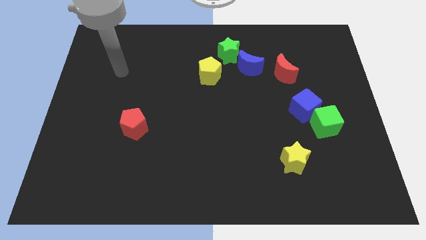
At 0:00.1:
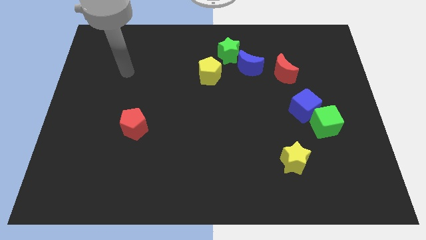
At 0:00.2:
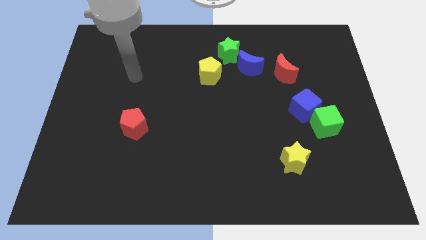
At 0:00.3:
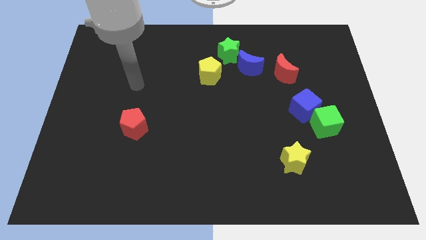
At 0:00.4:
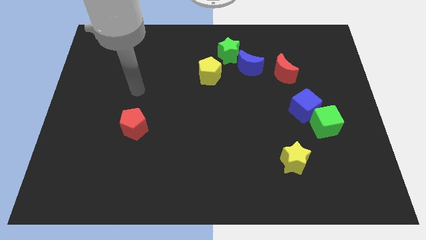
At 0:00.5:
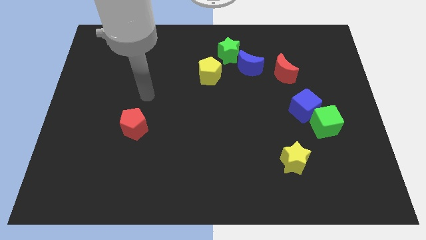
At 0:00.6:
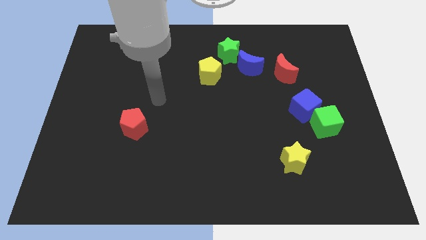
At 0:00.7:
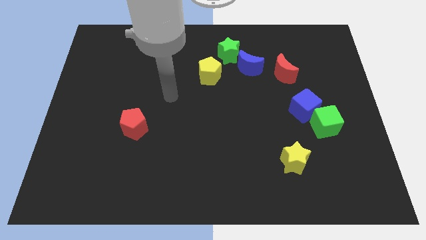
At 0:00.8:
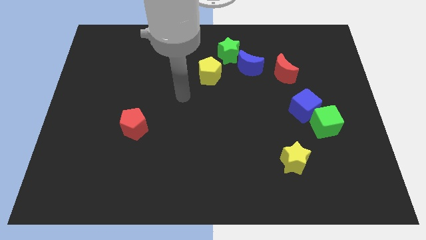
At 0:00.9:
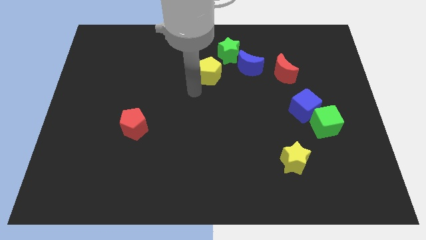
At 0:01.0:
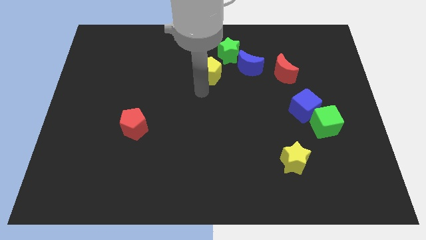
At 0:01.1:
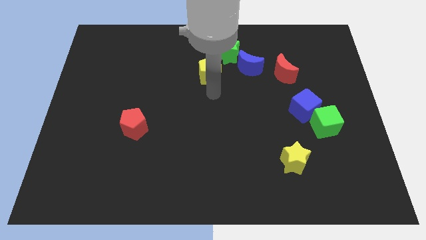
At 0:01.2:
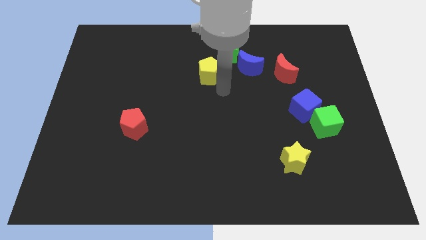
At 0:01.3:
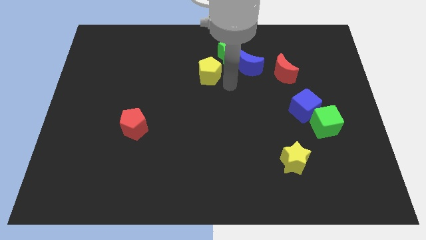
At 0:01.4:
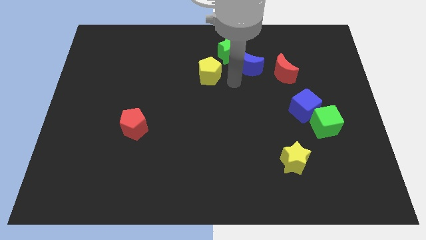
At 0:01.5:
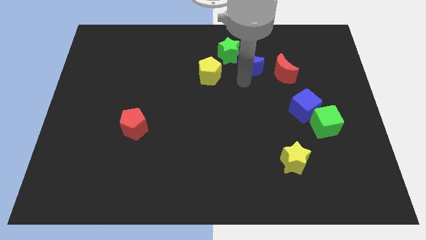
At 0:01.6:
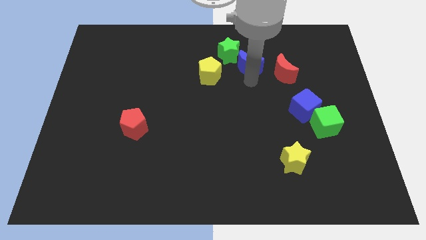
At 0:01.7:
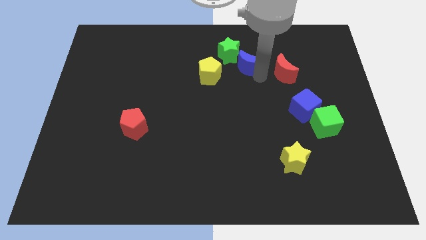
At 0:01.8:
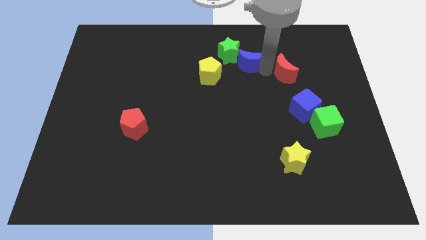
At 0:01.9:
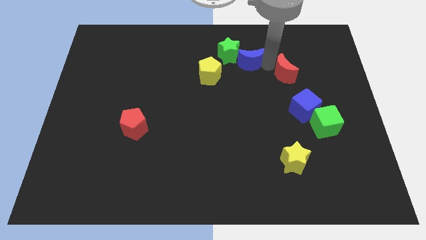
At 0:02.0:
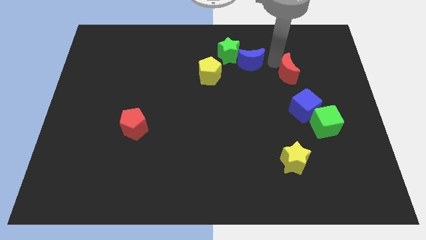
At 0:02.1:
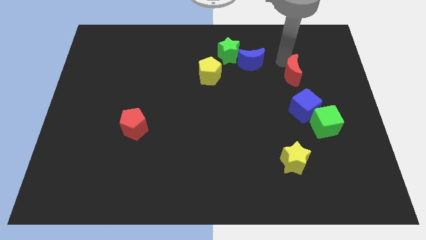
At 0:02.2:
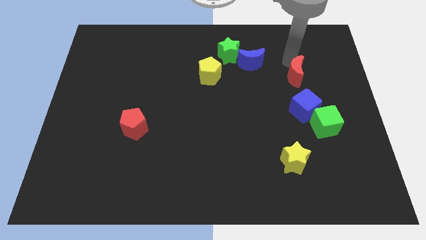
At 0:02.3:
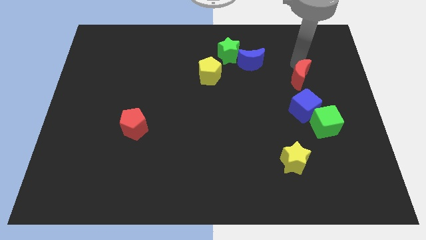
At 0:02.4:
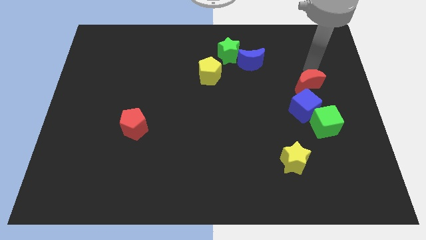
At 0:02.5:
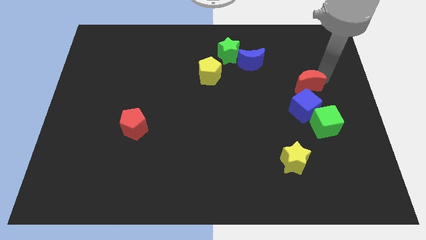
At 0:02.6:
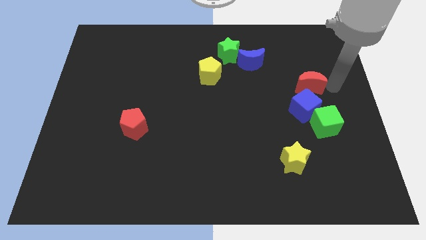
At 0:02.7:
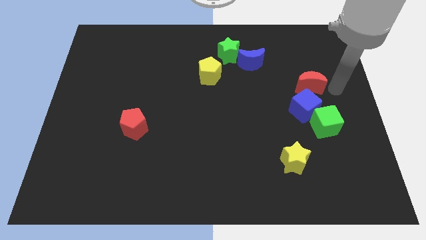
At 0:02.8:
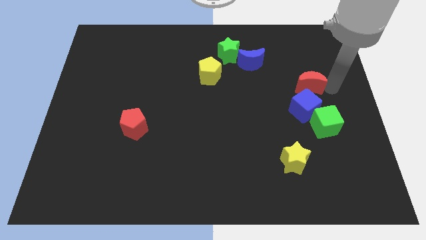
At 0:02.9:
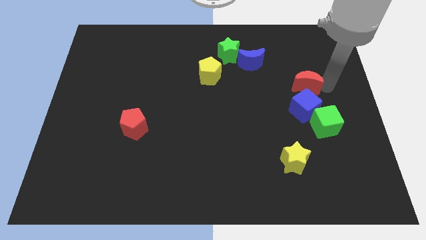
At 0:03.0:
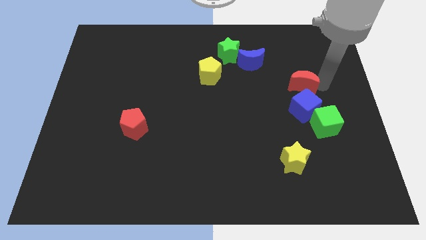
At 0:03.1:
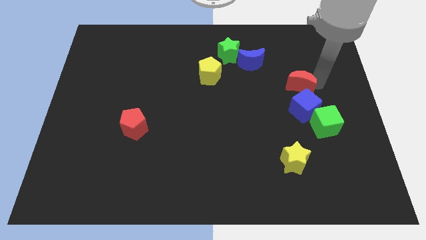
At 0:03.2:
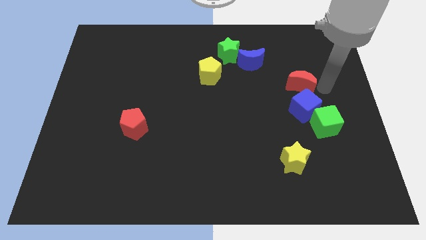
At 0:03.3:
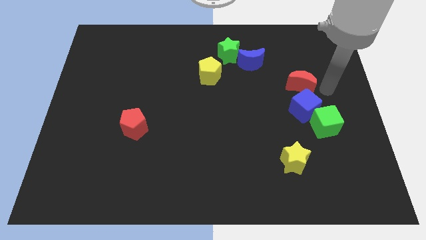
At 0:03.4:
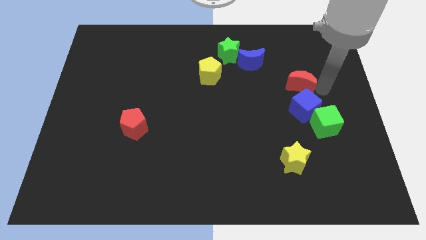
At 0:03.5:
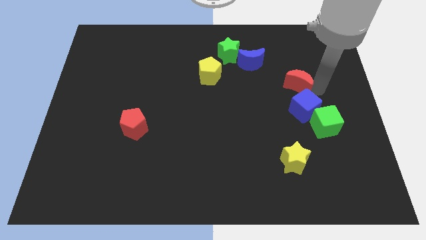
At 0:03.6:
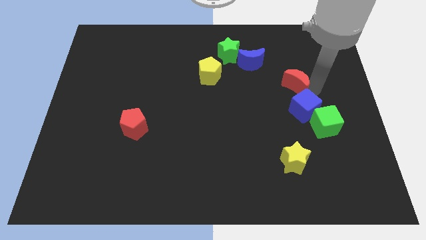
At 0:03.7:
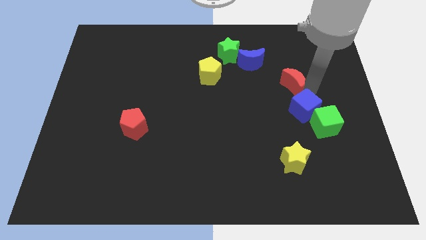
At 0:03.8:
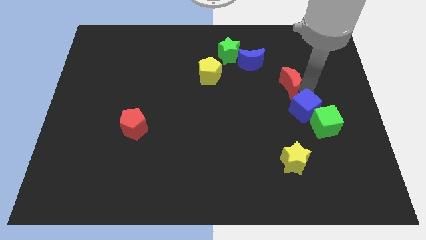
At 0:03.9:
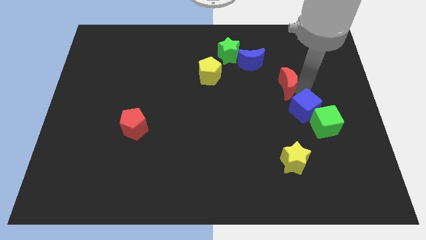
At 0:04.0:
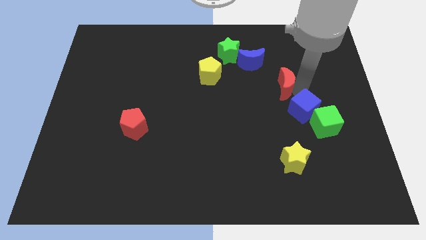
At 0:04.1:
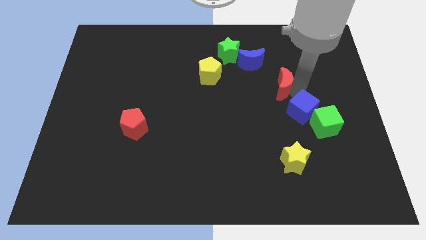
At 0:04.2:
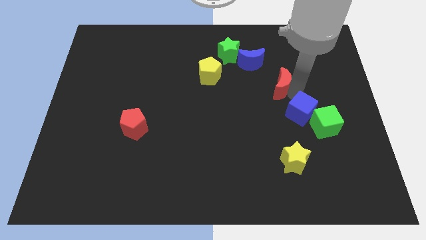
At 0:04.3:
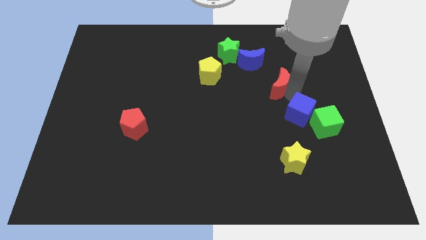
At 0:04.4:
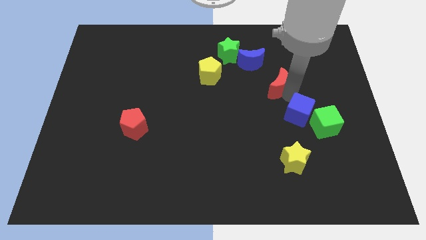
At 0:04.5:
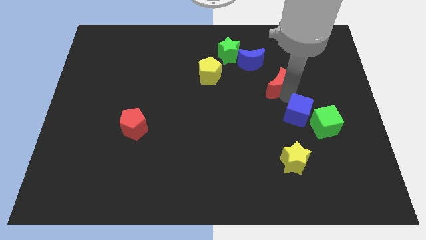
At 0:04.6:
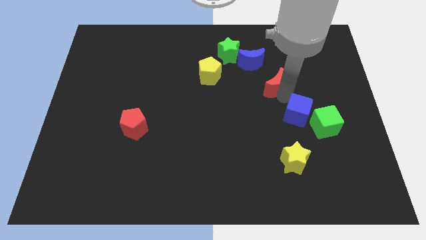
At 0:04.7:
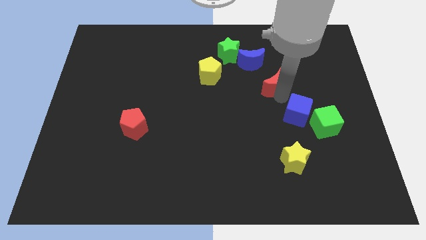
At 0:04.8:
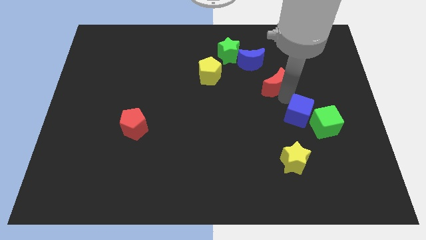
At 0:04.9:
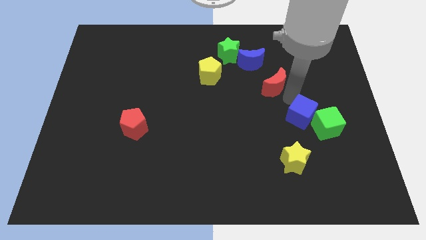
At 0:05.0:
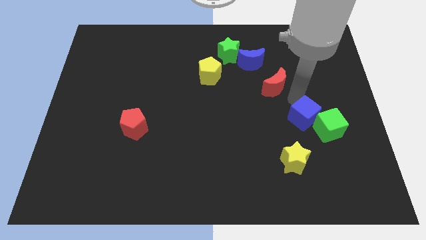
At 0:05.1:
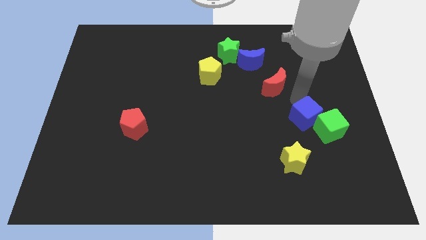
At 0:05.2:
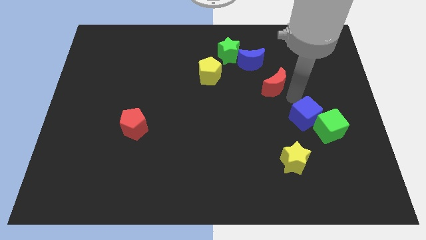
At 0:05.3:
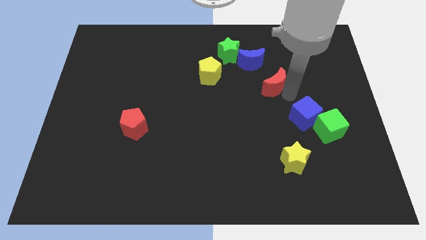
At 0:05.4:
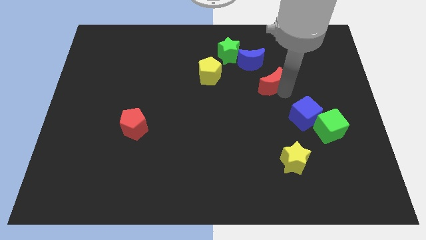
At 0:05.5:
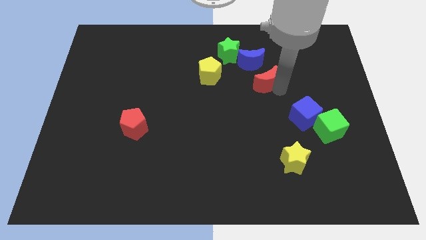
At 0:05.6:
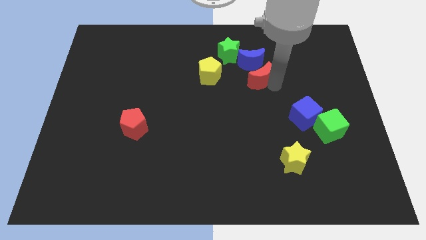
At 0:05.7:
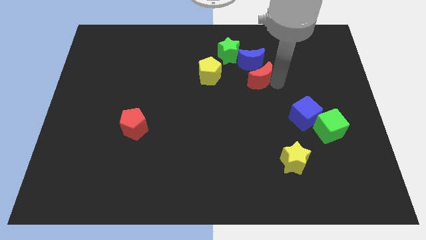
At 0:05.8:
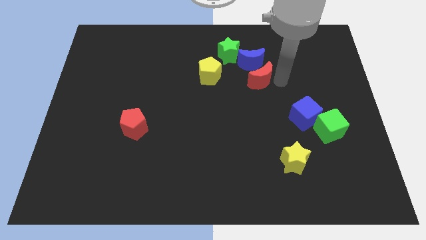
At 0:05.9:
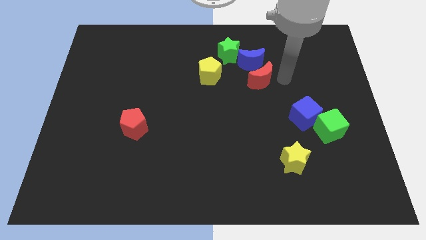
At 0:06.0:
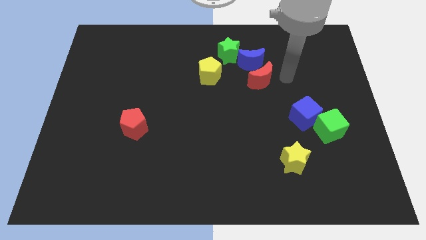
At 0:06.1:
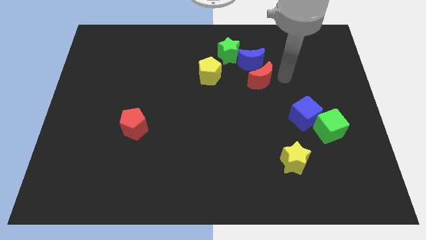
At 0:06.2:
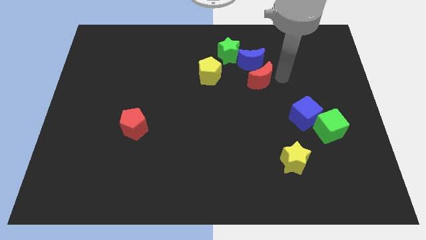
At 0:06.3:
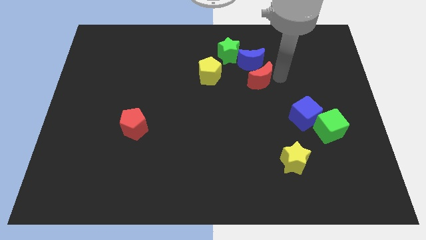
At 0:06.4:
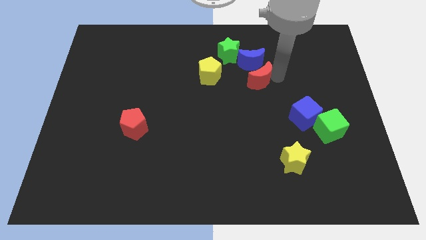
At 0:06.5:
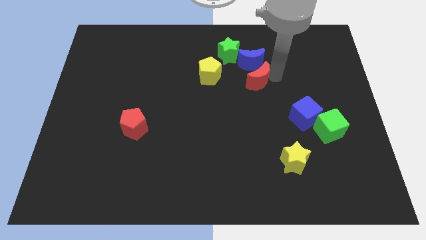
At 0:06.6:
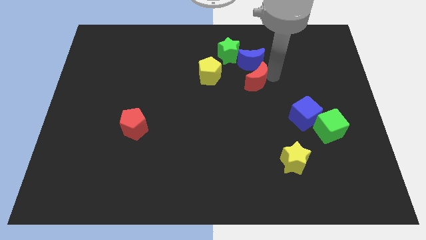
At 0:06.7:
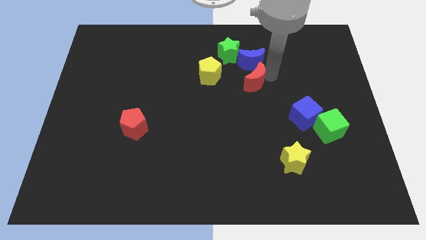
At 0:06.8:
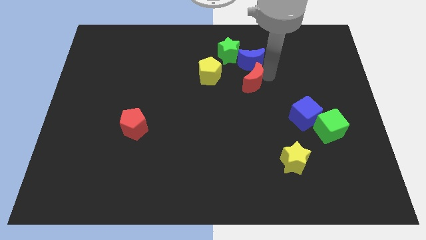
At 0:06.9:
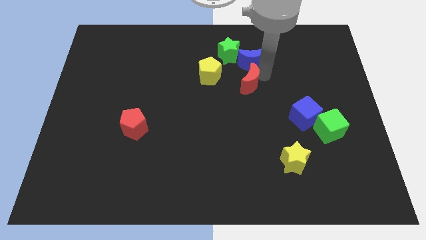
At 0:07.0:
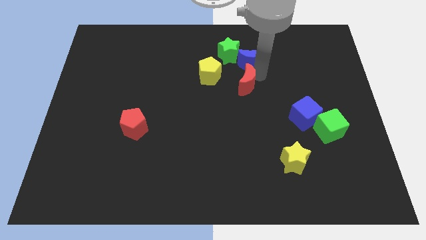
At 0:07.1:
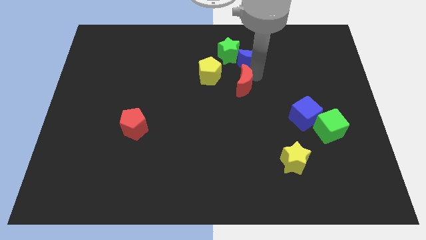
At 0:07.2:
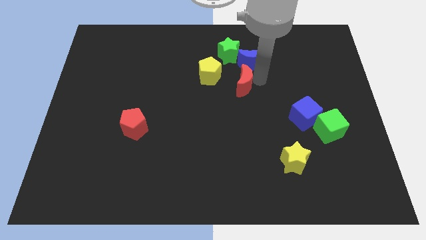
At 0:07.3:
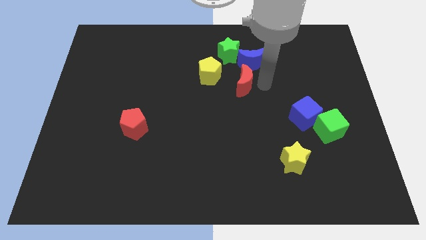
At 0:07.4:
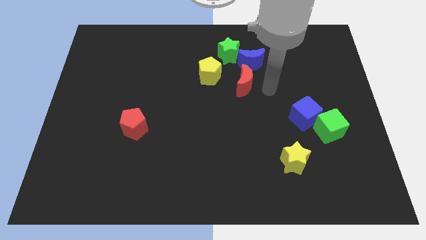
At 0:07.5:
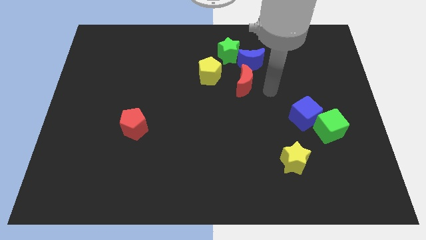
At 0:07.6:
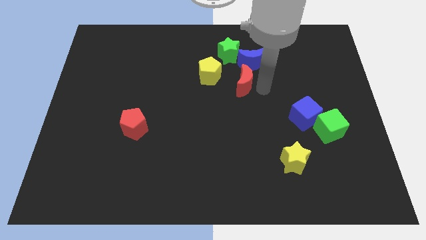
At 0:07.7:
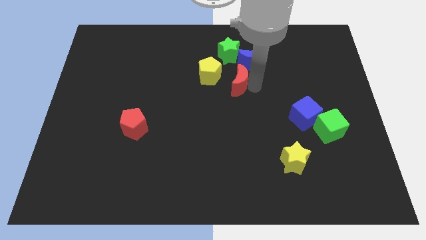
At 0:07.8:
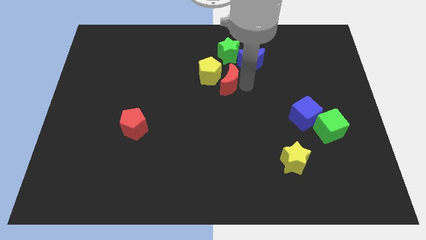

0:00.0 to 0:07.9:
push the red moon close to the yellow pentagon
